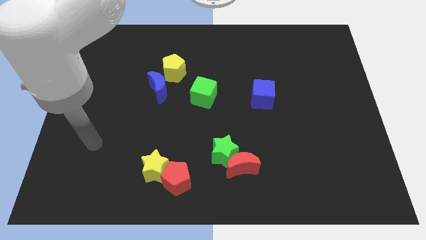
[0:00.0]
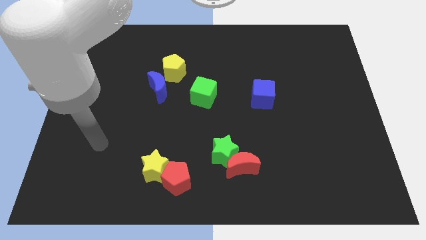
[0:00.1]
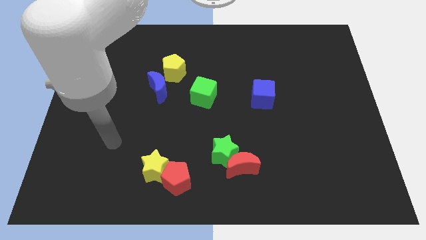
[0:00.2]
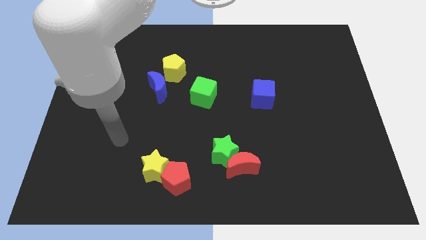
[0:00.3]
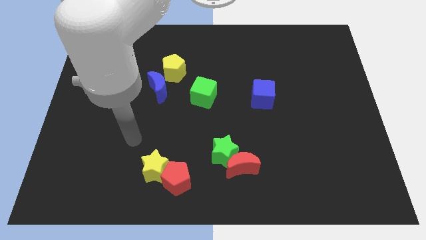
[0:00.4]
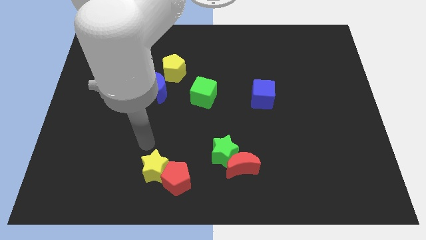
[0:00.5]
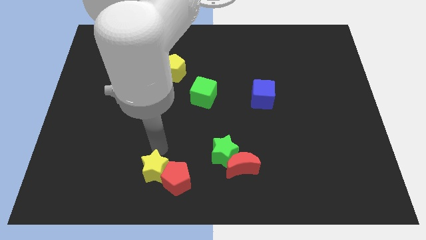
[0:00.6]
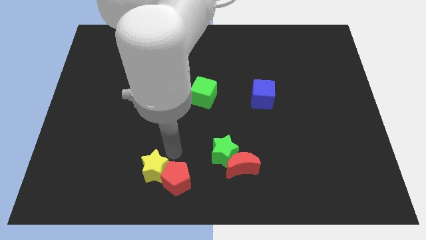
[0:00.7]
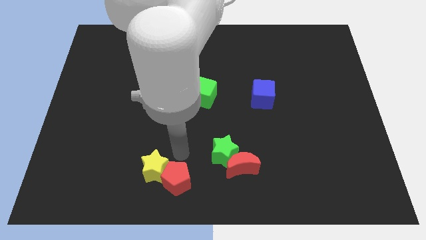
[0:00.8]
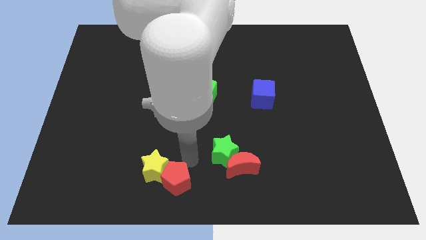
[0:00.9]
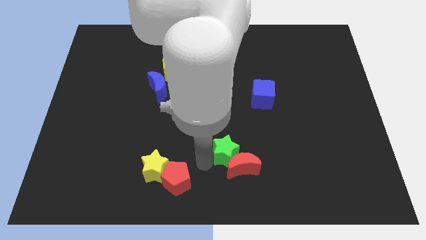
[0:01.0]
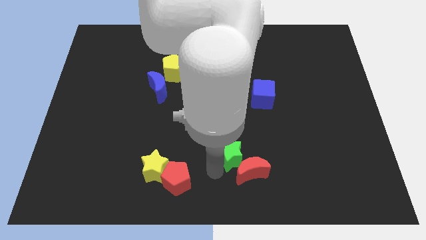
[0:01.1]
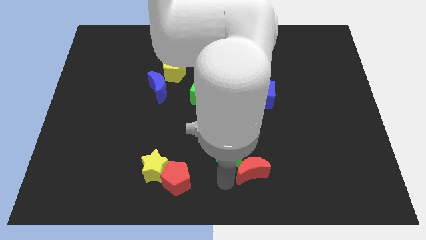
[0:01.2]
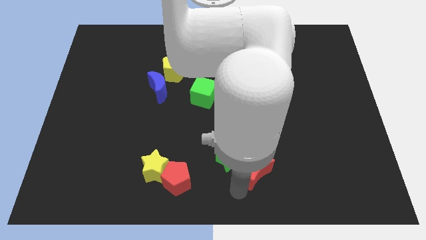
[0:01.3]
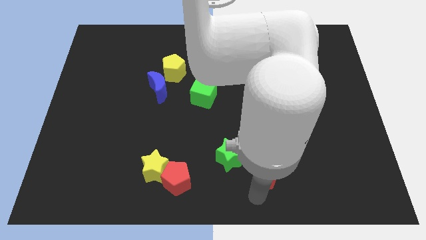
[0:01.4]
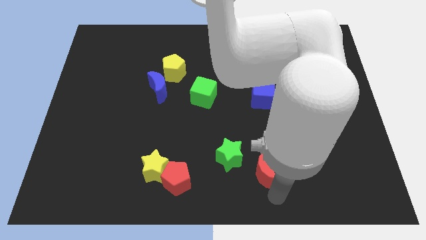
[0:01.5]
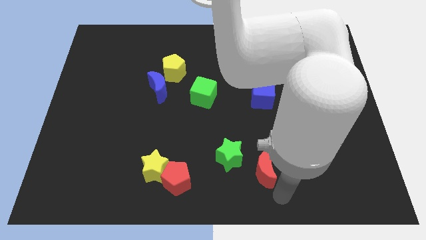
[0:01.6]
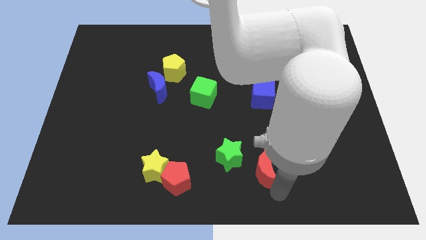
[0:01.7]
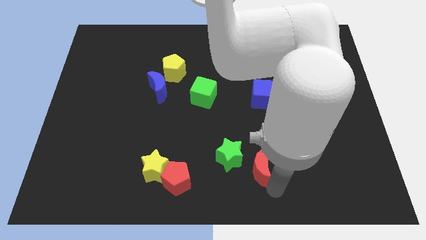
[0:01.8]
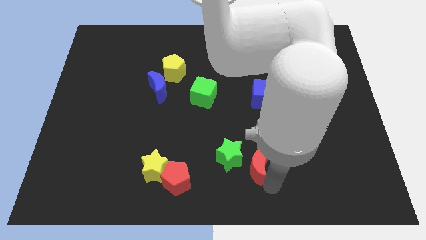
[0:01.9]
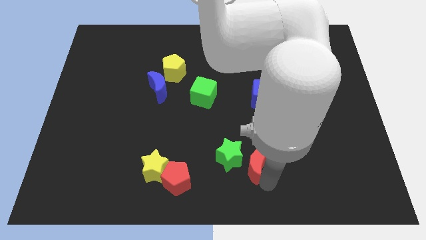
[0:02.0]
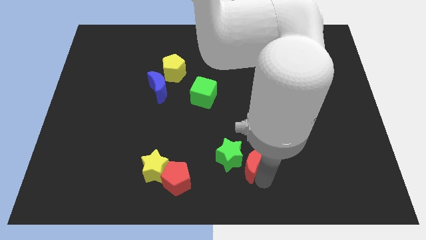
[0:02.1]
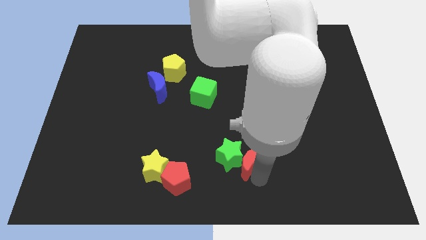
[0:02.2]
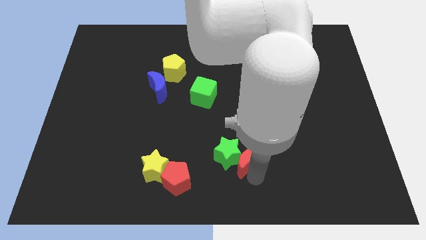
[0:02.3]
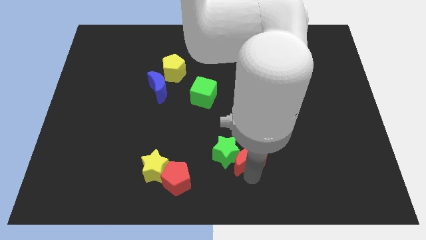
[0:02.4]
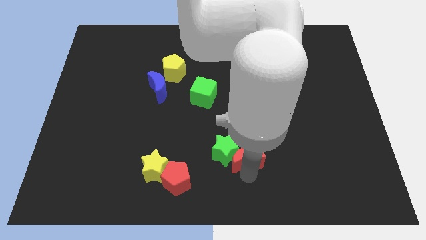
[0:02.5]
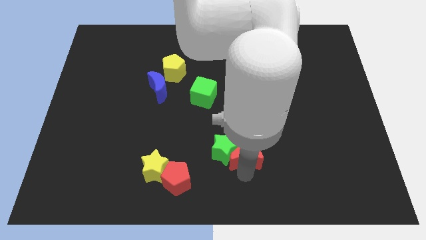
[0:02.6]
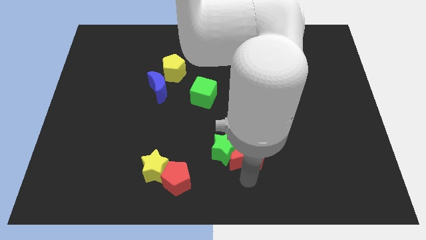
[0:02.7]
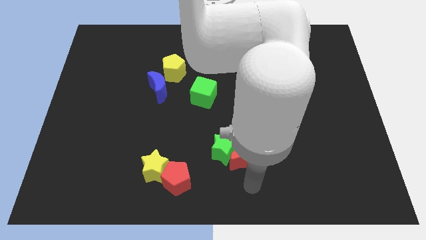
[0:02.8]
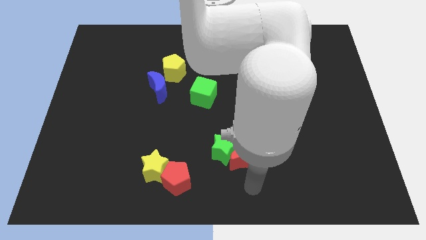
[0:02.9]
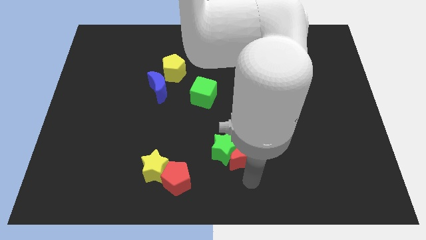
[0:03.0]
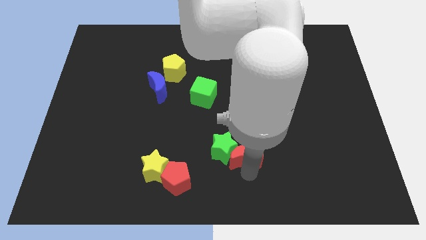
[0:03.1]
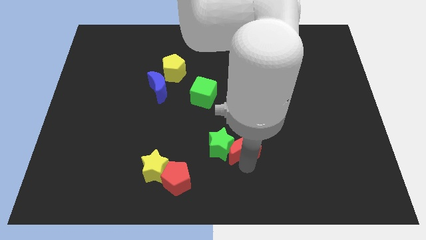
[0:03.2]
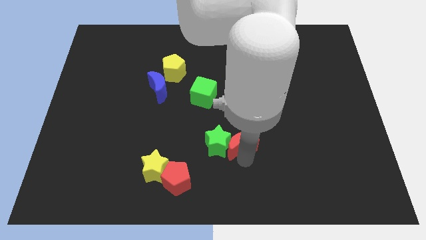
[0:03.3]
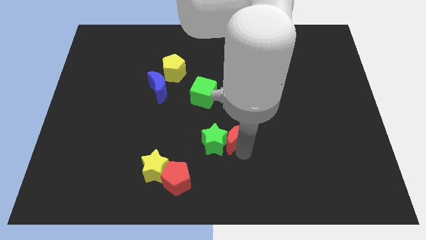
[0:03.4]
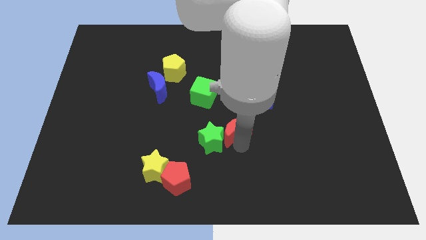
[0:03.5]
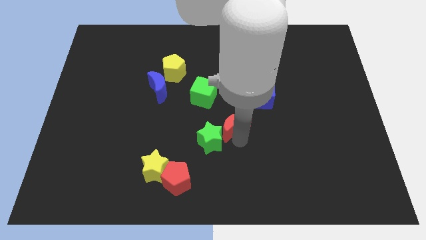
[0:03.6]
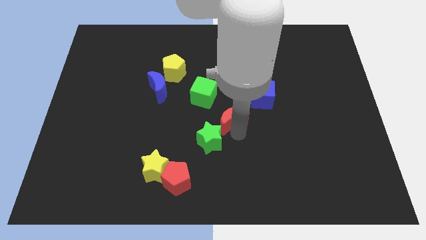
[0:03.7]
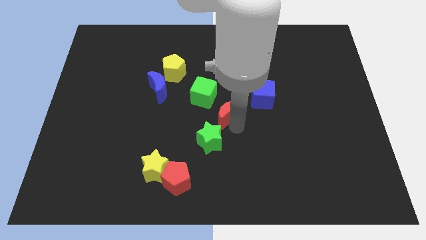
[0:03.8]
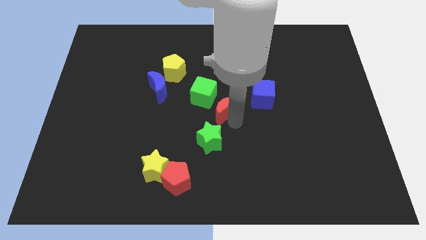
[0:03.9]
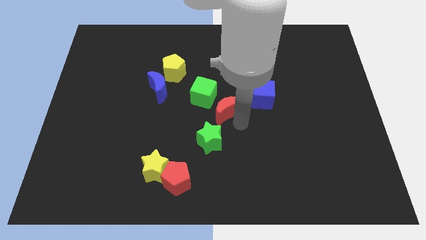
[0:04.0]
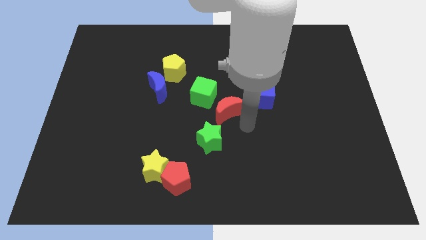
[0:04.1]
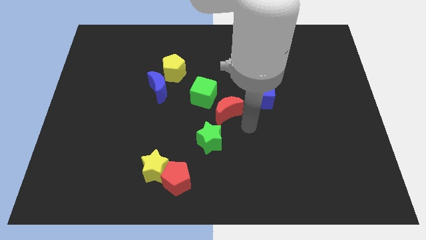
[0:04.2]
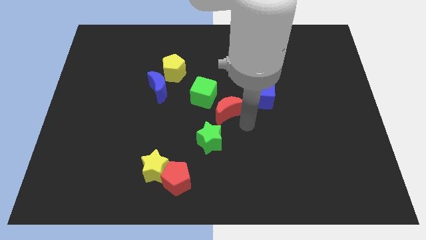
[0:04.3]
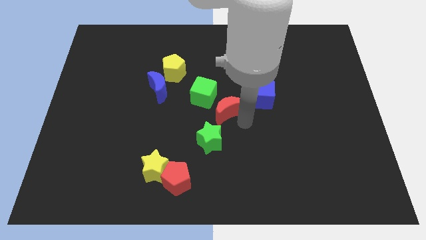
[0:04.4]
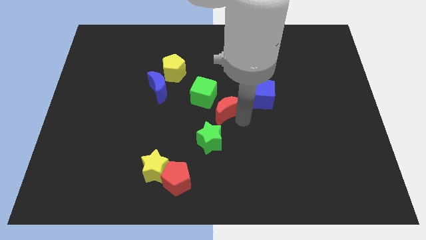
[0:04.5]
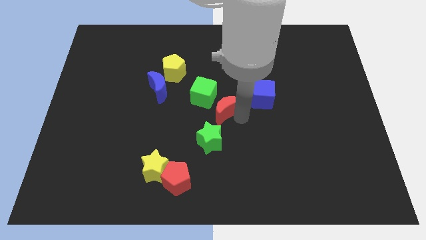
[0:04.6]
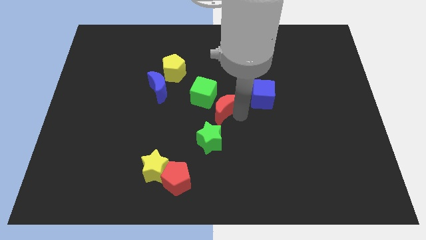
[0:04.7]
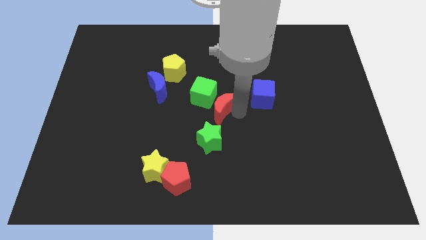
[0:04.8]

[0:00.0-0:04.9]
slide the red moon to the green cube

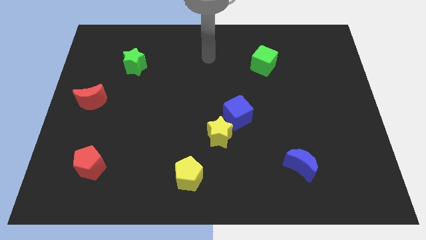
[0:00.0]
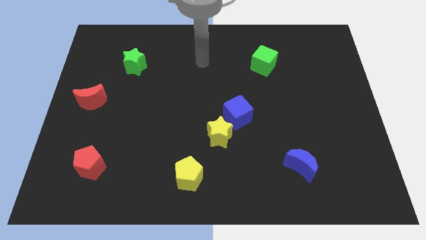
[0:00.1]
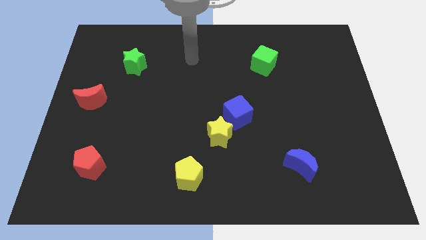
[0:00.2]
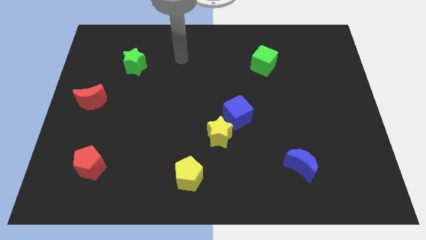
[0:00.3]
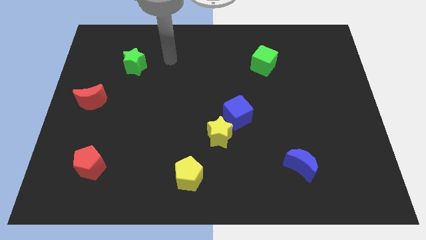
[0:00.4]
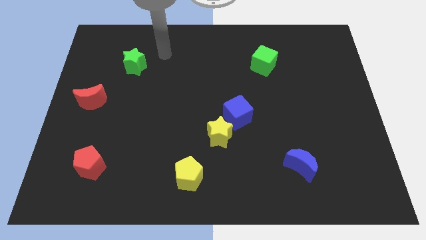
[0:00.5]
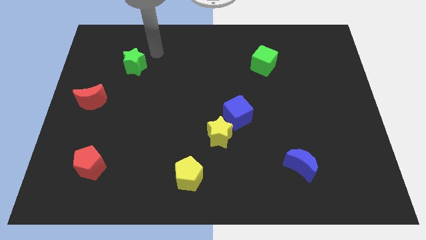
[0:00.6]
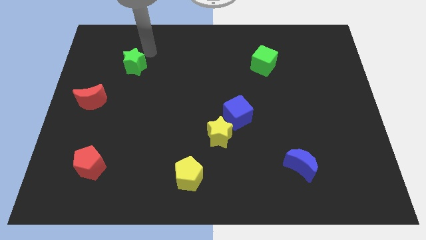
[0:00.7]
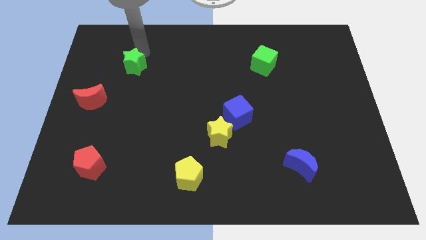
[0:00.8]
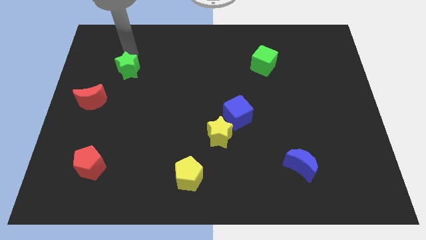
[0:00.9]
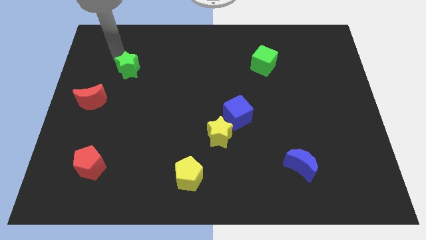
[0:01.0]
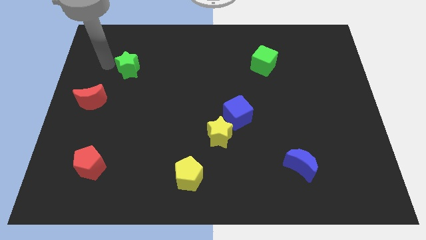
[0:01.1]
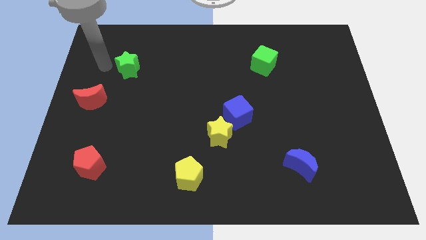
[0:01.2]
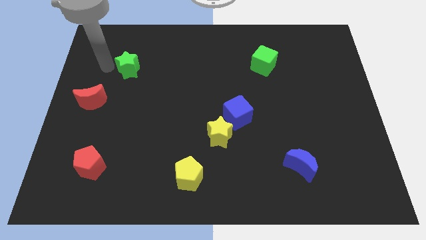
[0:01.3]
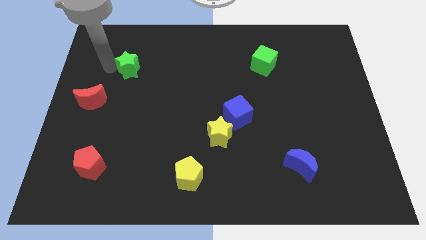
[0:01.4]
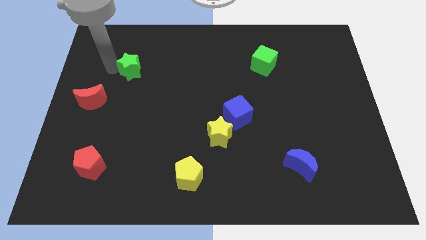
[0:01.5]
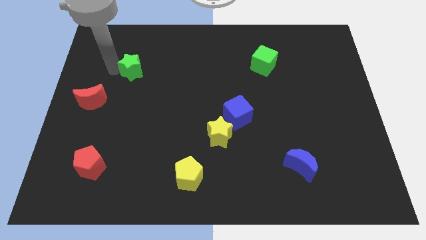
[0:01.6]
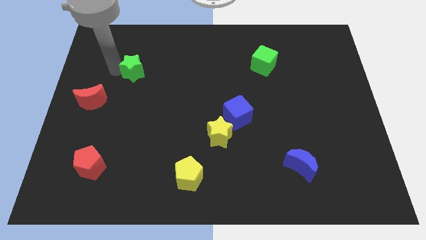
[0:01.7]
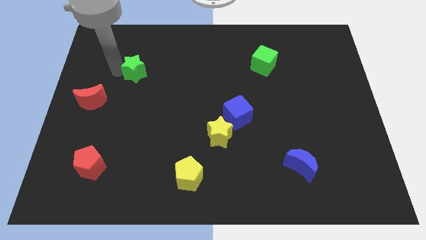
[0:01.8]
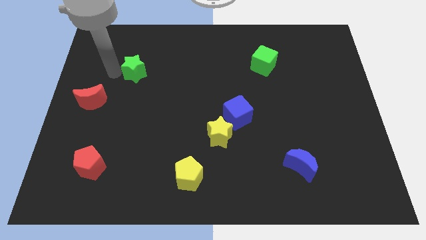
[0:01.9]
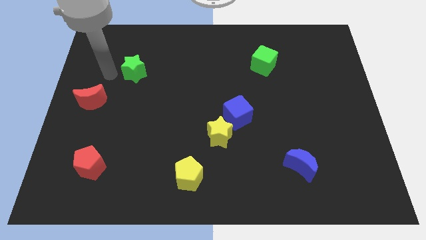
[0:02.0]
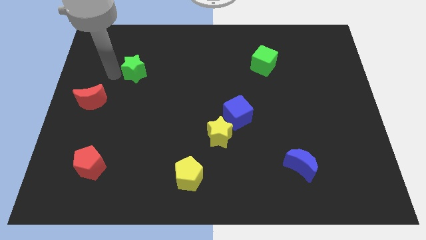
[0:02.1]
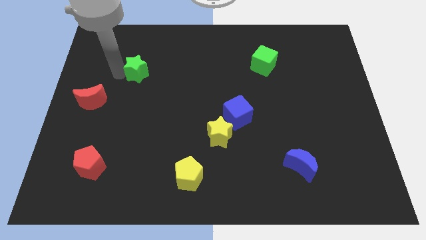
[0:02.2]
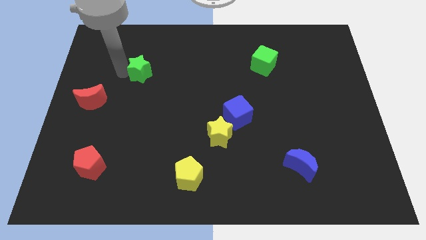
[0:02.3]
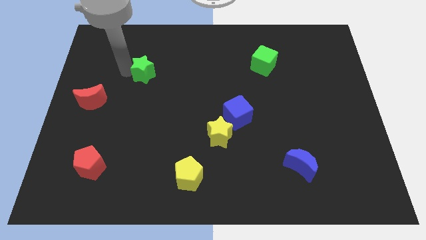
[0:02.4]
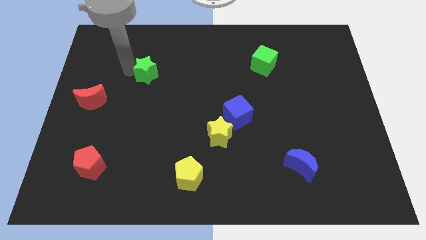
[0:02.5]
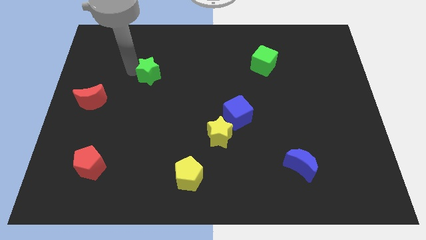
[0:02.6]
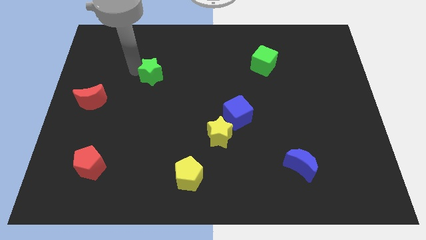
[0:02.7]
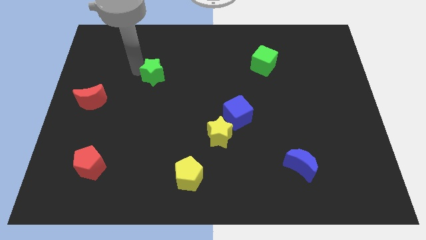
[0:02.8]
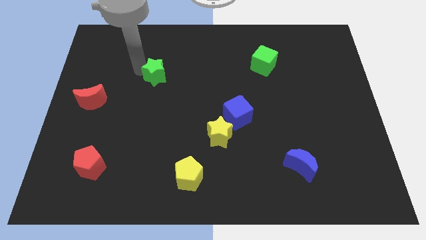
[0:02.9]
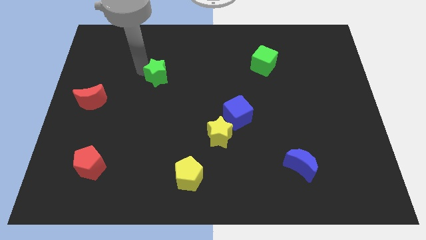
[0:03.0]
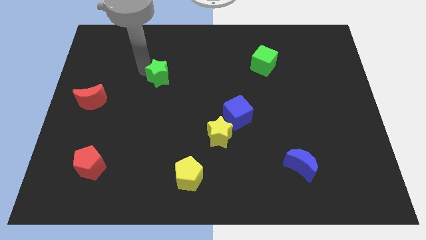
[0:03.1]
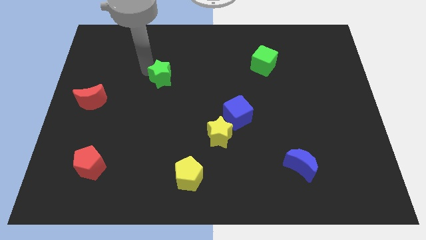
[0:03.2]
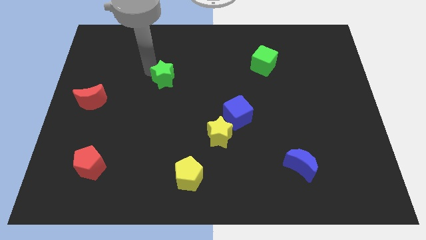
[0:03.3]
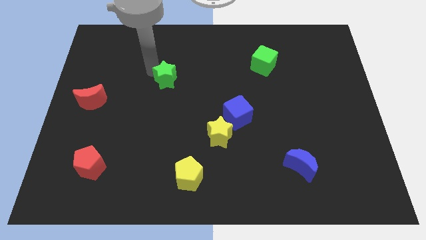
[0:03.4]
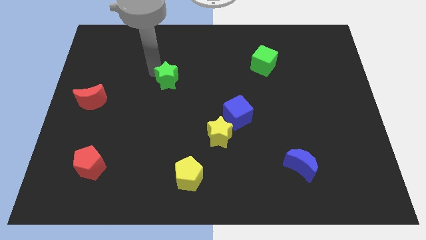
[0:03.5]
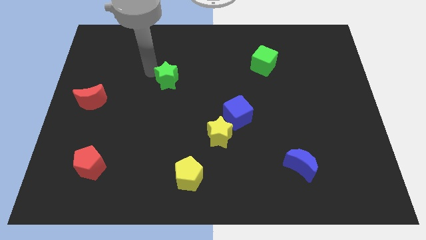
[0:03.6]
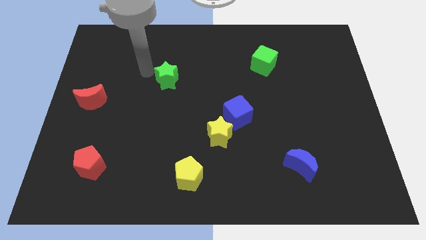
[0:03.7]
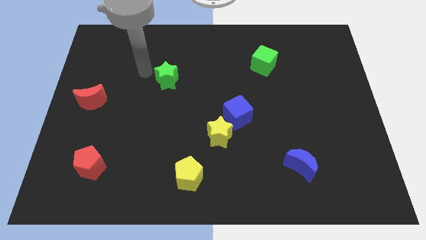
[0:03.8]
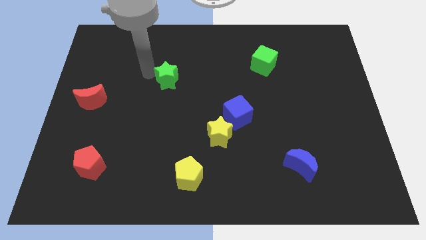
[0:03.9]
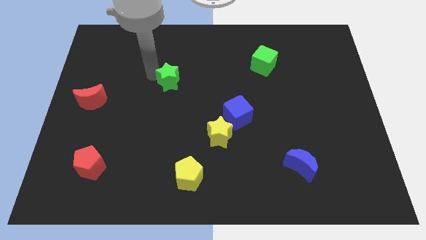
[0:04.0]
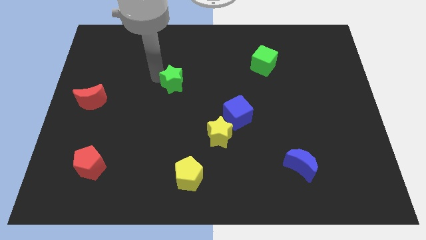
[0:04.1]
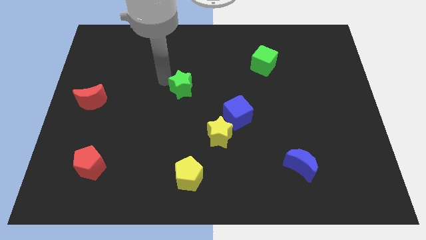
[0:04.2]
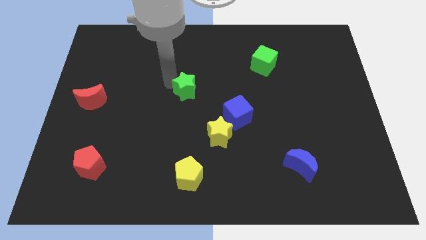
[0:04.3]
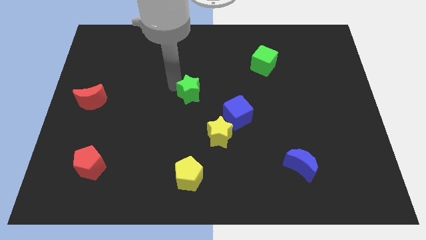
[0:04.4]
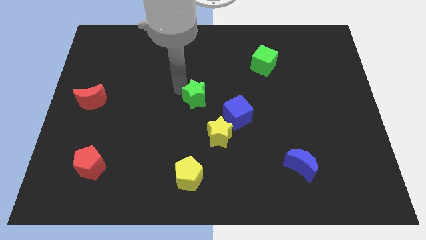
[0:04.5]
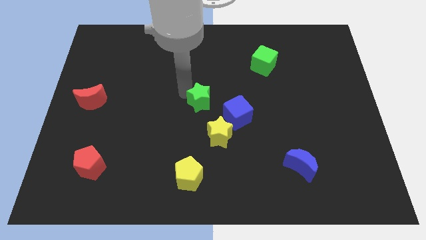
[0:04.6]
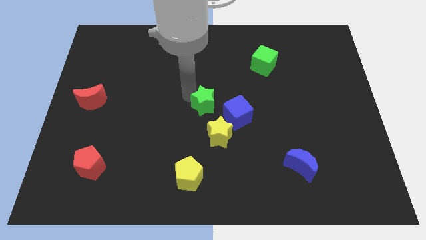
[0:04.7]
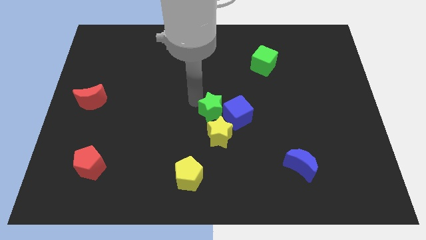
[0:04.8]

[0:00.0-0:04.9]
slide the green star next to the blue cube
